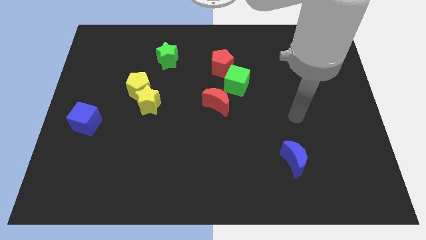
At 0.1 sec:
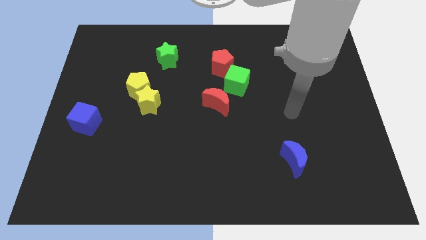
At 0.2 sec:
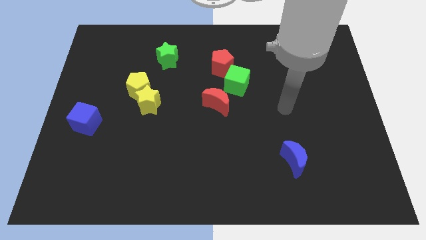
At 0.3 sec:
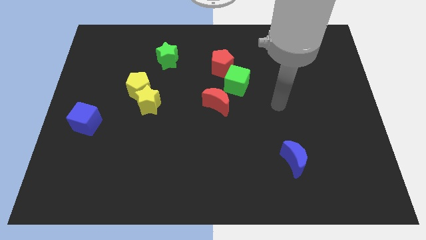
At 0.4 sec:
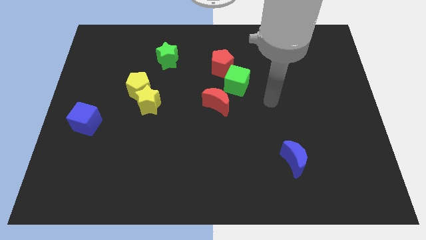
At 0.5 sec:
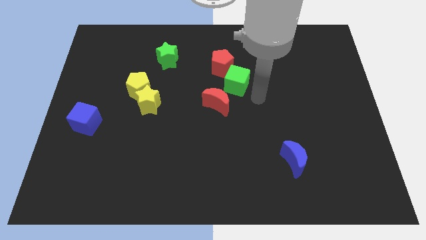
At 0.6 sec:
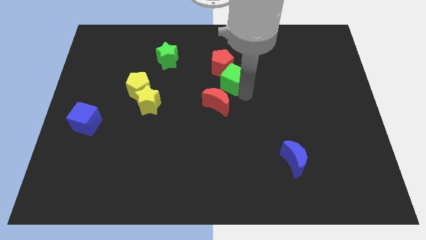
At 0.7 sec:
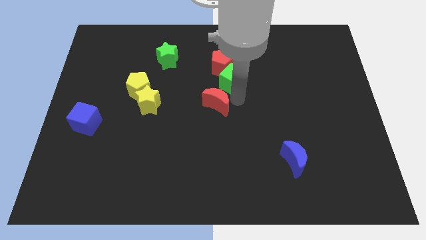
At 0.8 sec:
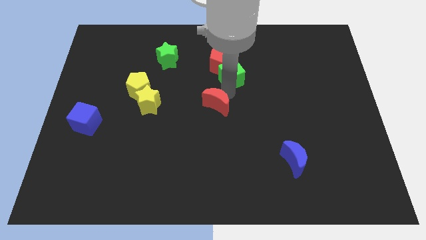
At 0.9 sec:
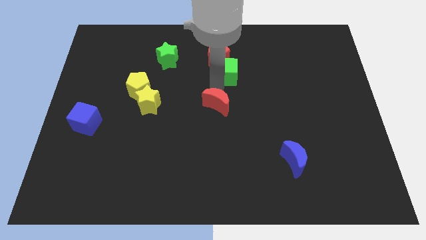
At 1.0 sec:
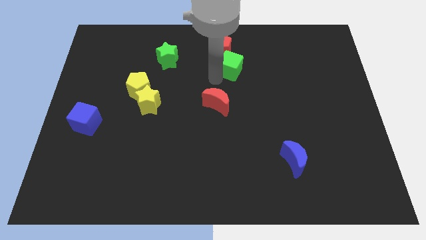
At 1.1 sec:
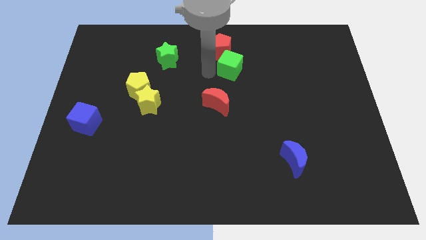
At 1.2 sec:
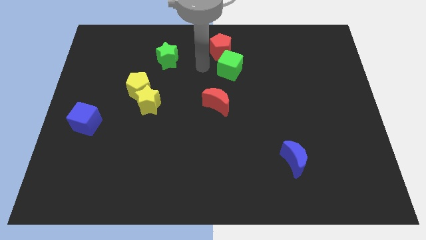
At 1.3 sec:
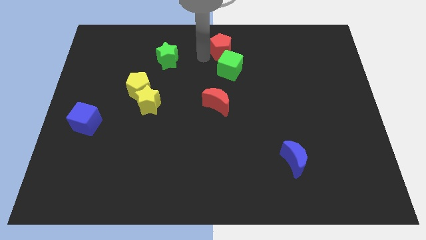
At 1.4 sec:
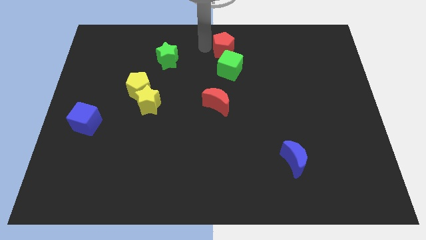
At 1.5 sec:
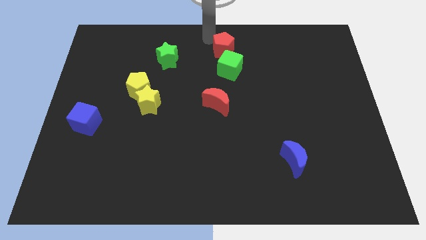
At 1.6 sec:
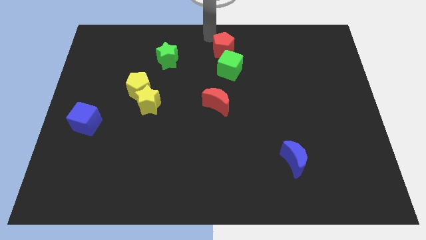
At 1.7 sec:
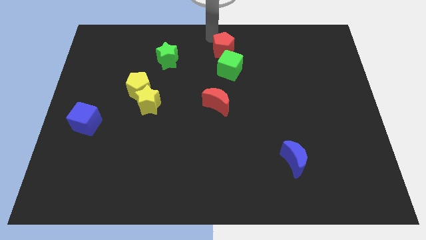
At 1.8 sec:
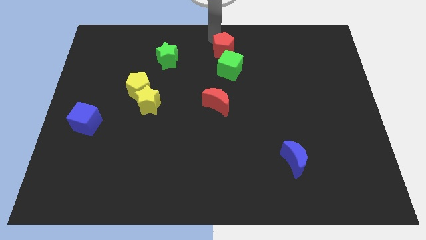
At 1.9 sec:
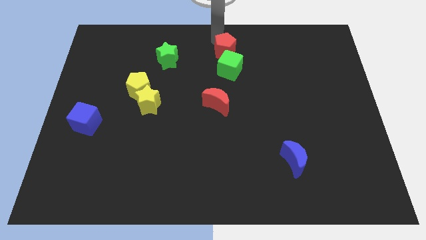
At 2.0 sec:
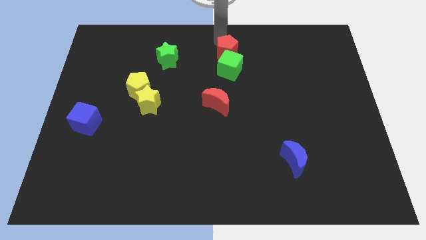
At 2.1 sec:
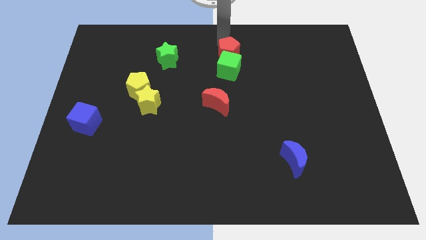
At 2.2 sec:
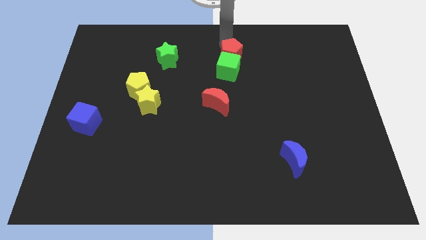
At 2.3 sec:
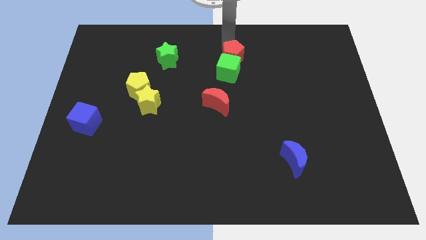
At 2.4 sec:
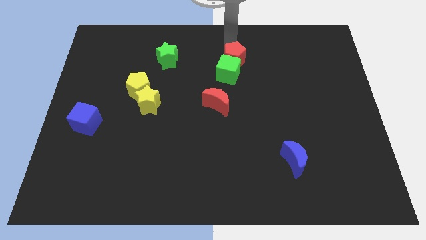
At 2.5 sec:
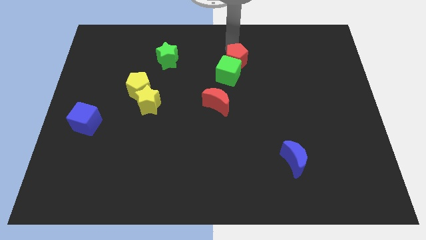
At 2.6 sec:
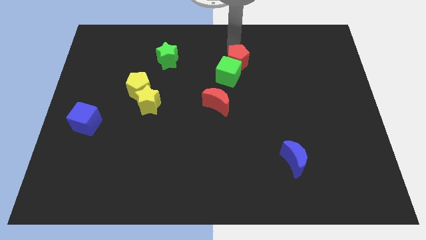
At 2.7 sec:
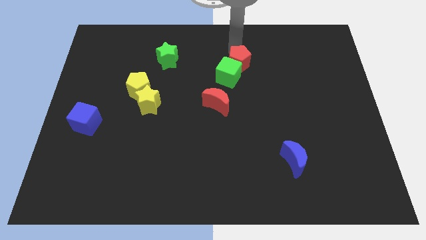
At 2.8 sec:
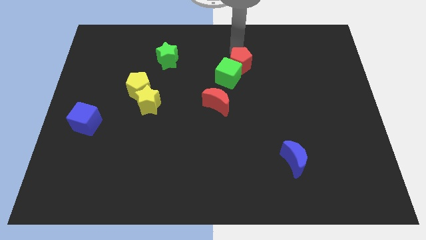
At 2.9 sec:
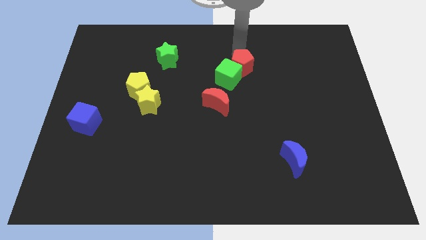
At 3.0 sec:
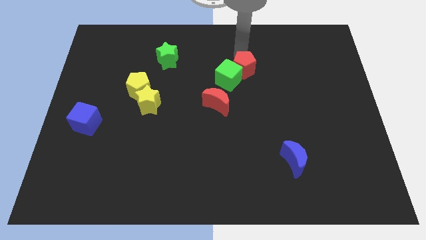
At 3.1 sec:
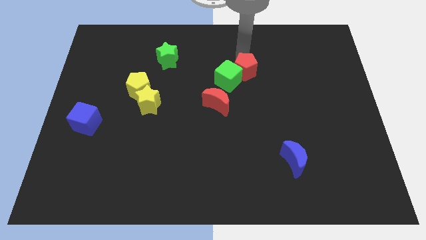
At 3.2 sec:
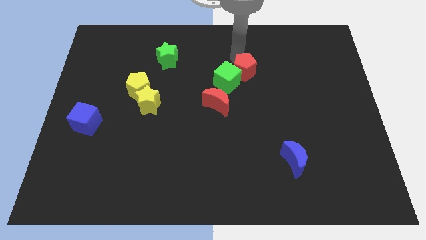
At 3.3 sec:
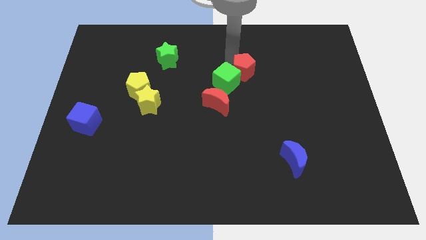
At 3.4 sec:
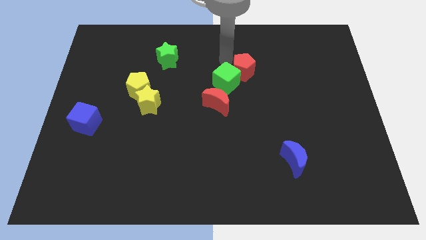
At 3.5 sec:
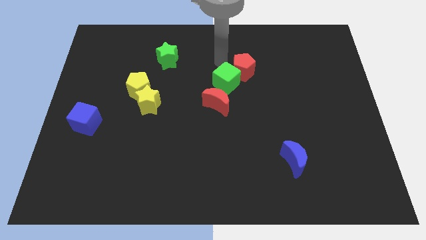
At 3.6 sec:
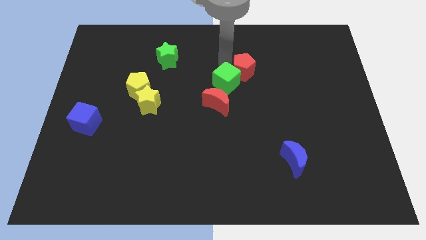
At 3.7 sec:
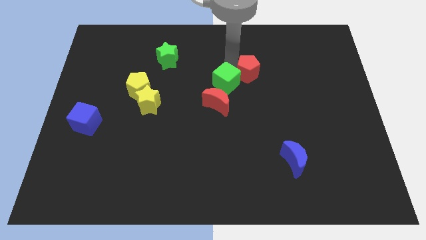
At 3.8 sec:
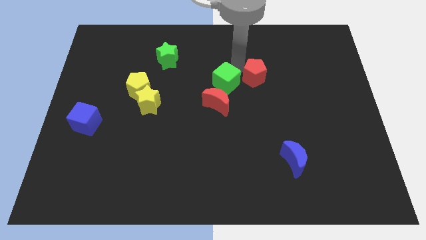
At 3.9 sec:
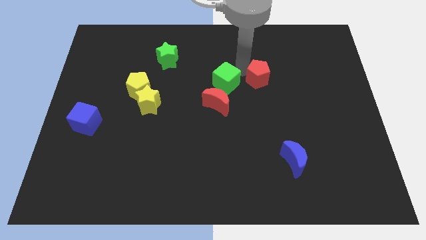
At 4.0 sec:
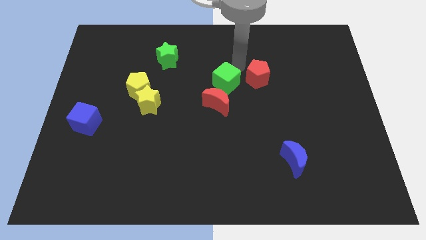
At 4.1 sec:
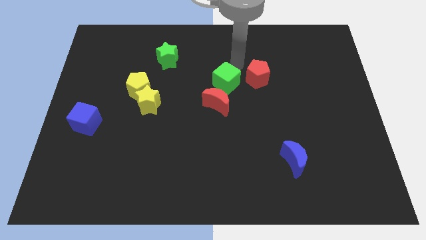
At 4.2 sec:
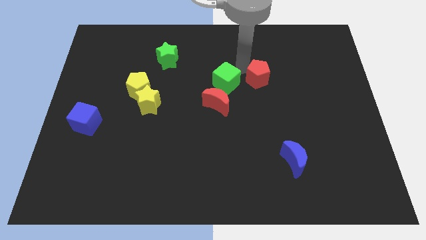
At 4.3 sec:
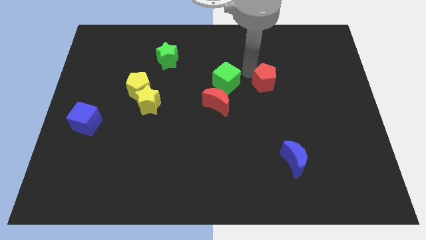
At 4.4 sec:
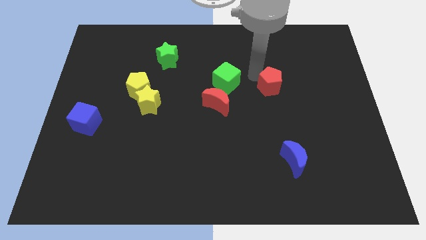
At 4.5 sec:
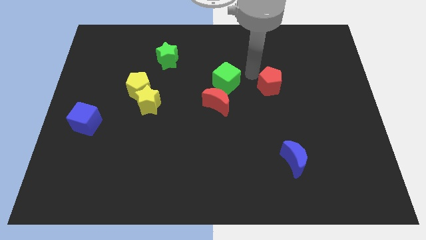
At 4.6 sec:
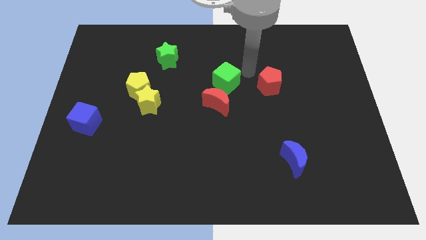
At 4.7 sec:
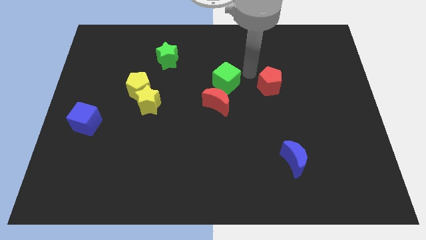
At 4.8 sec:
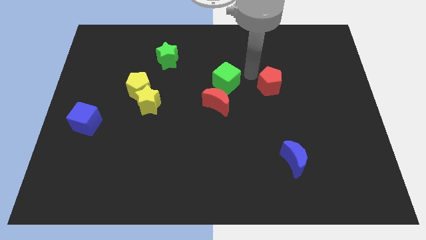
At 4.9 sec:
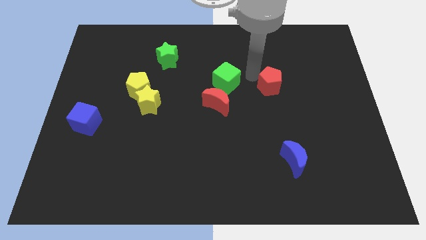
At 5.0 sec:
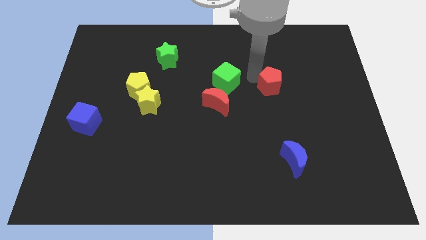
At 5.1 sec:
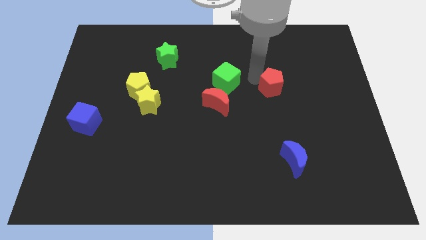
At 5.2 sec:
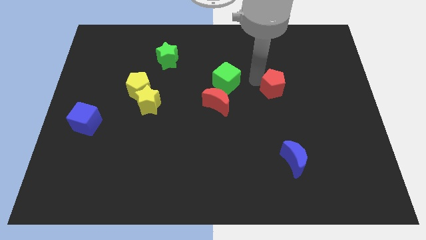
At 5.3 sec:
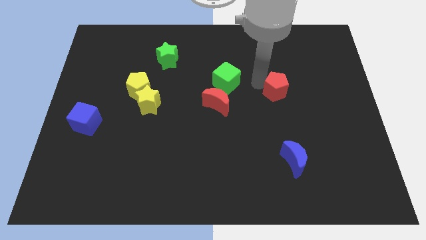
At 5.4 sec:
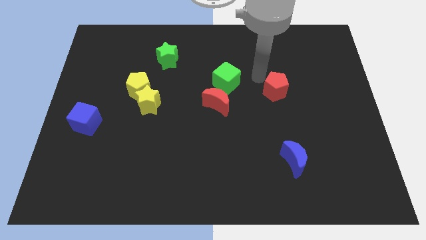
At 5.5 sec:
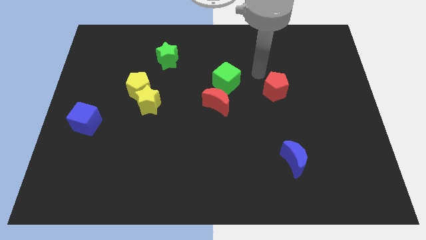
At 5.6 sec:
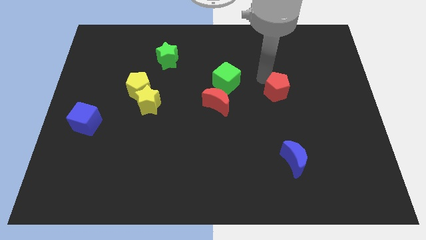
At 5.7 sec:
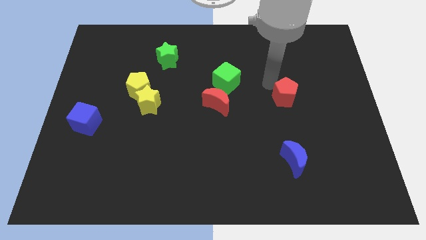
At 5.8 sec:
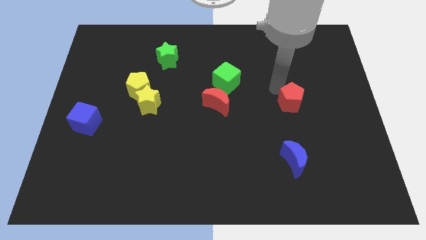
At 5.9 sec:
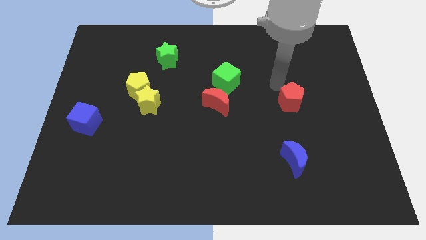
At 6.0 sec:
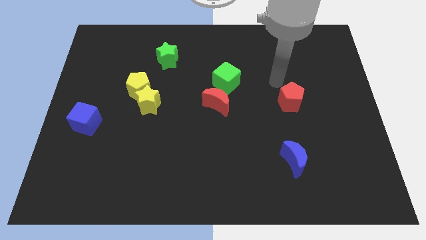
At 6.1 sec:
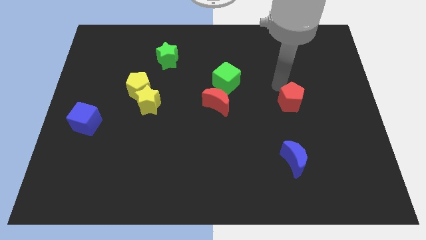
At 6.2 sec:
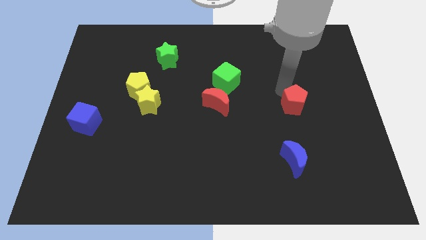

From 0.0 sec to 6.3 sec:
move the red pentagon down and right

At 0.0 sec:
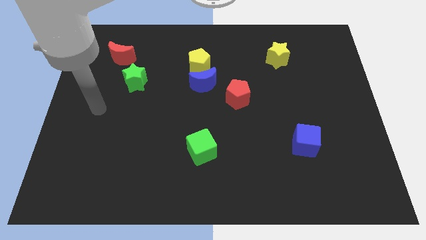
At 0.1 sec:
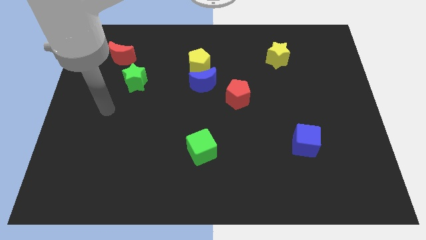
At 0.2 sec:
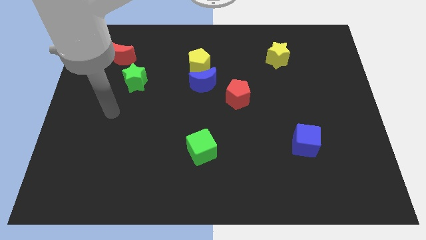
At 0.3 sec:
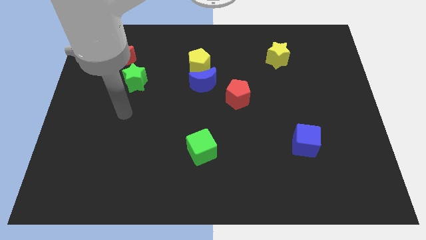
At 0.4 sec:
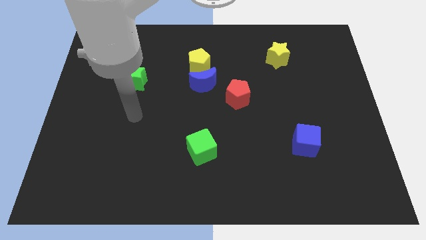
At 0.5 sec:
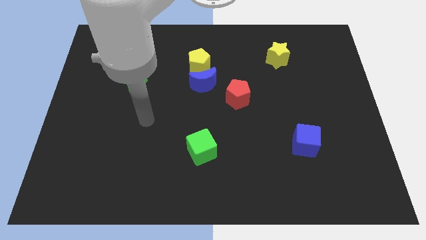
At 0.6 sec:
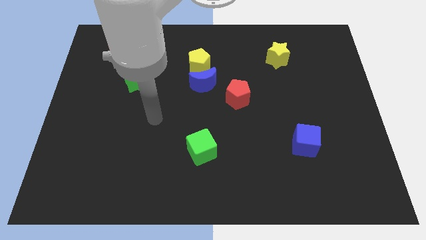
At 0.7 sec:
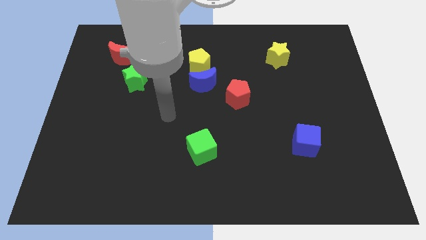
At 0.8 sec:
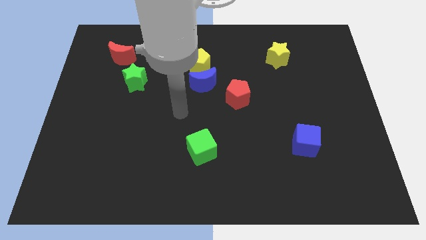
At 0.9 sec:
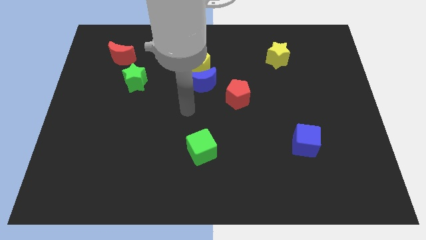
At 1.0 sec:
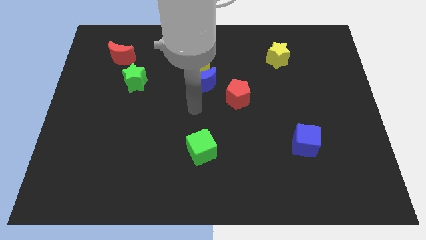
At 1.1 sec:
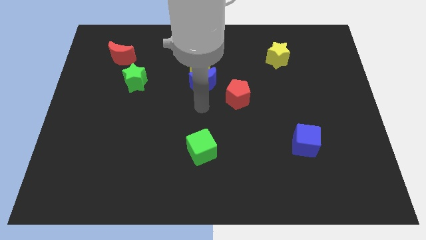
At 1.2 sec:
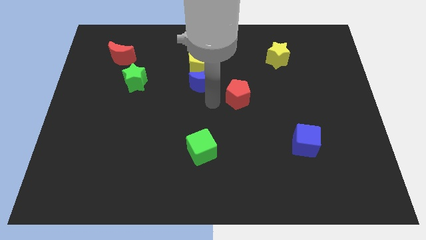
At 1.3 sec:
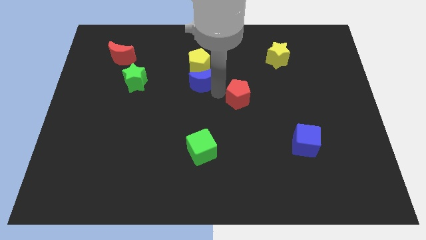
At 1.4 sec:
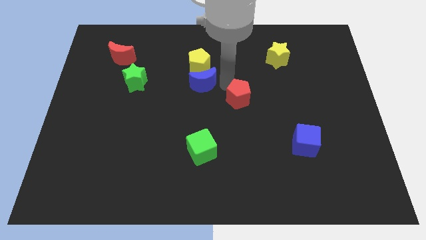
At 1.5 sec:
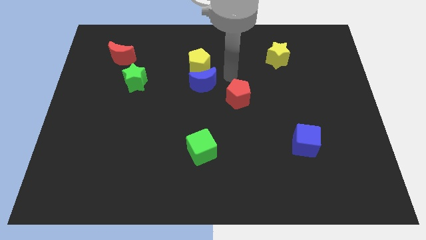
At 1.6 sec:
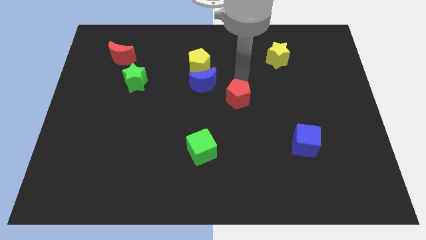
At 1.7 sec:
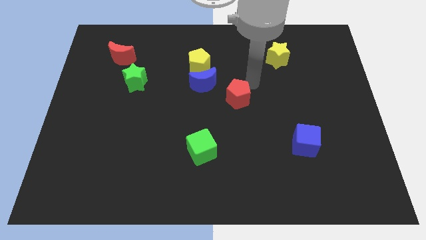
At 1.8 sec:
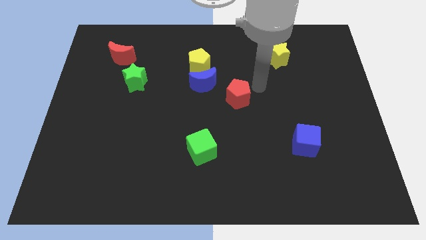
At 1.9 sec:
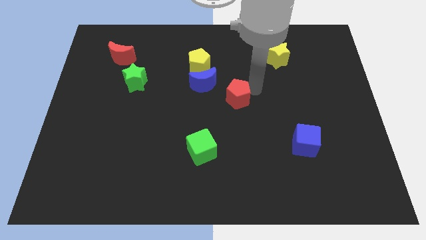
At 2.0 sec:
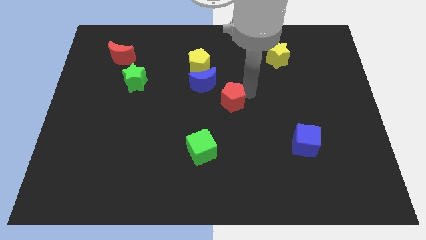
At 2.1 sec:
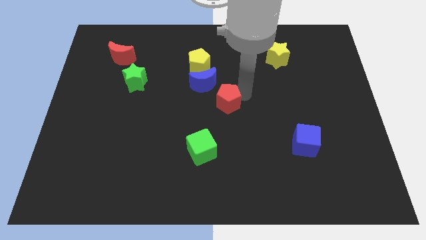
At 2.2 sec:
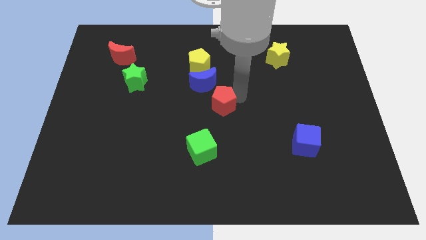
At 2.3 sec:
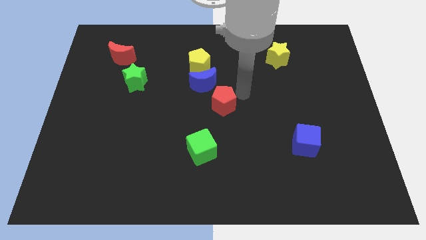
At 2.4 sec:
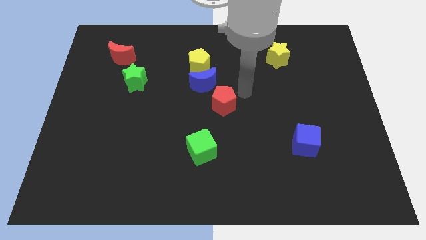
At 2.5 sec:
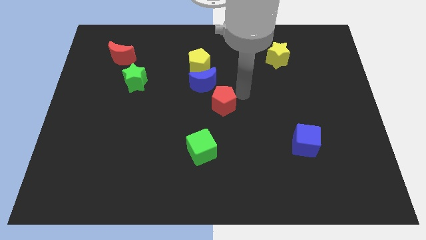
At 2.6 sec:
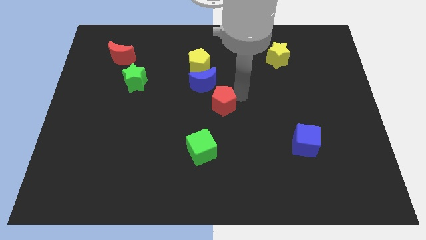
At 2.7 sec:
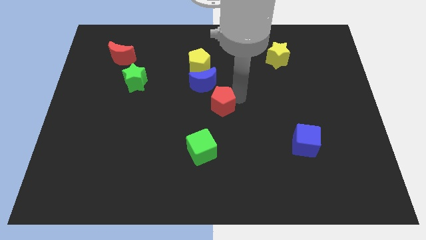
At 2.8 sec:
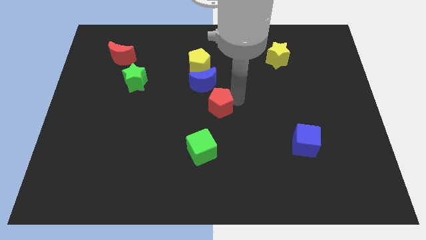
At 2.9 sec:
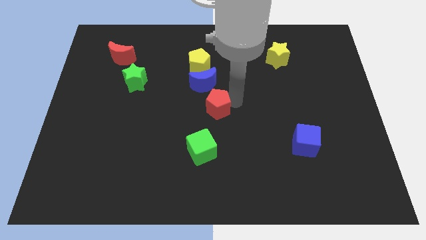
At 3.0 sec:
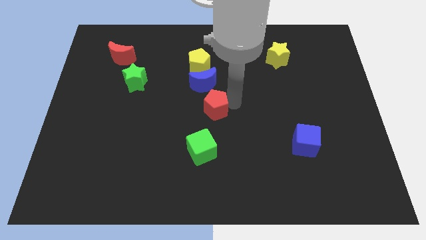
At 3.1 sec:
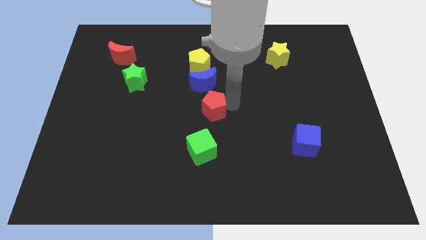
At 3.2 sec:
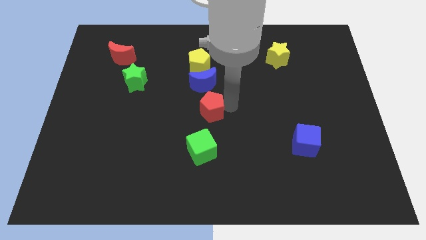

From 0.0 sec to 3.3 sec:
push the red pentagon down and left a bit
